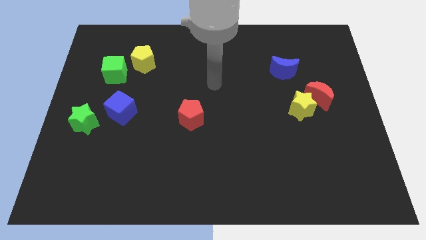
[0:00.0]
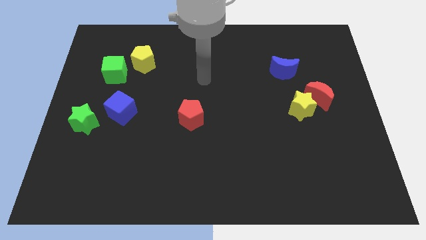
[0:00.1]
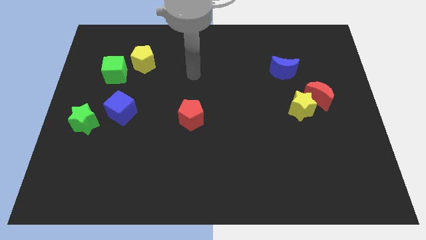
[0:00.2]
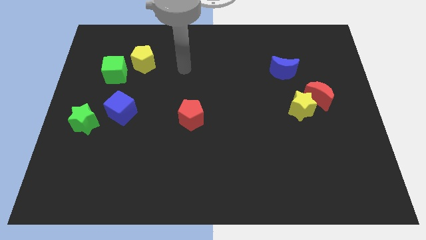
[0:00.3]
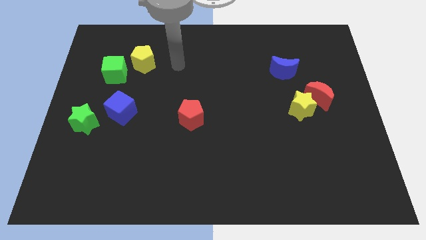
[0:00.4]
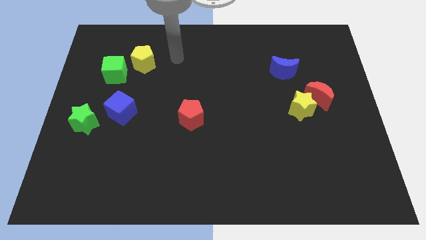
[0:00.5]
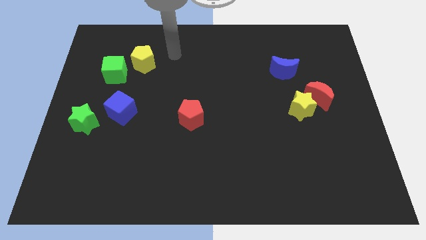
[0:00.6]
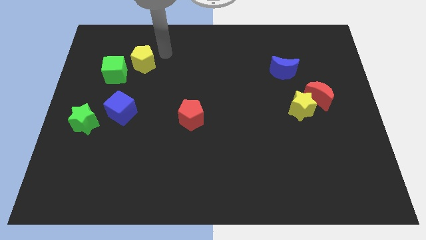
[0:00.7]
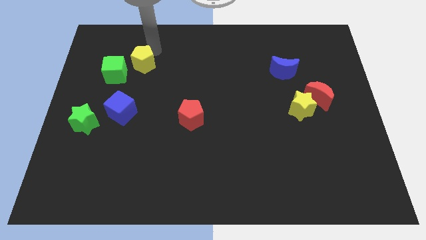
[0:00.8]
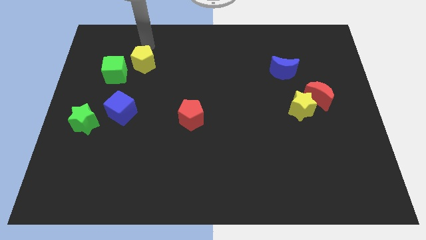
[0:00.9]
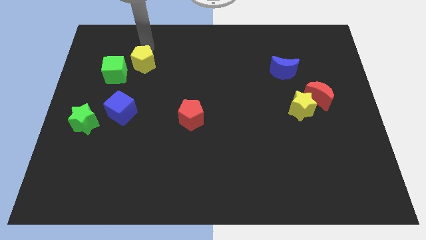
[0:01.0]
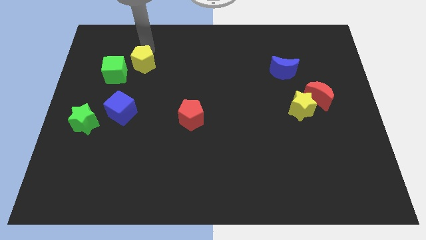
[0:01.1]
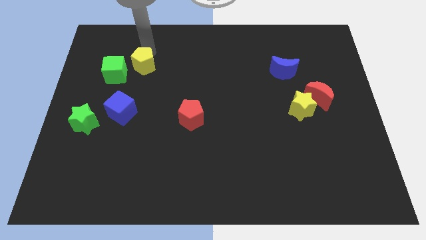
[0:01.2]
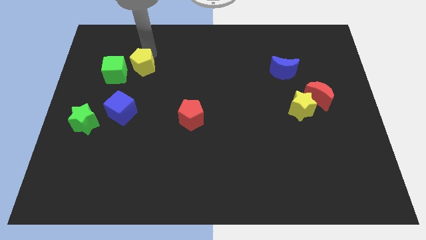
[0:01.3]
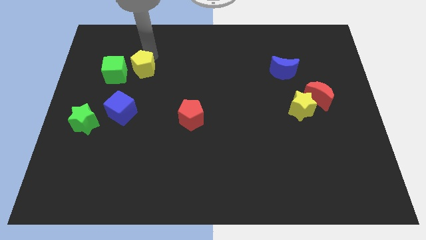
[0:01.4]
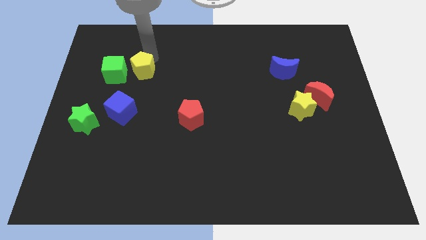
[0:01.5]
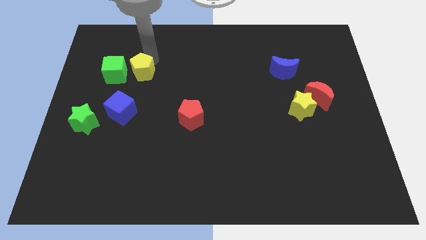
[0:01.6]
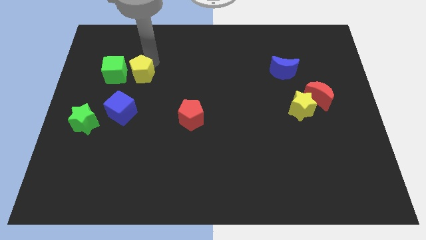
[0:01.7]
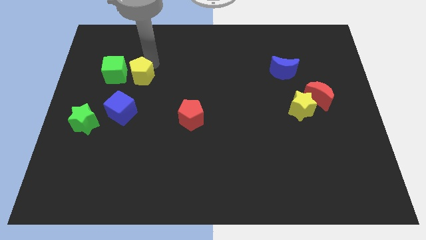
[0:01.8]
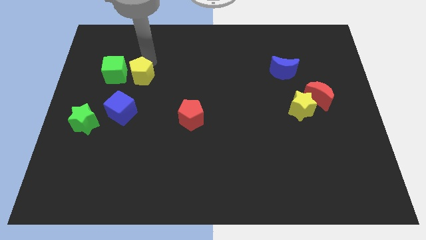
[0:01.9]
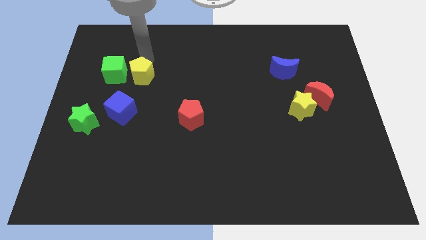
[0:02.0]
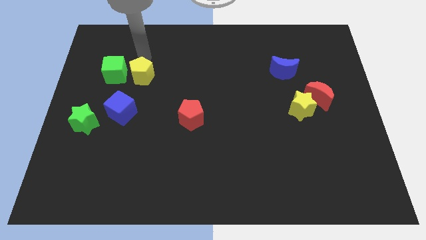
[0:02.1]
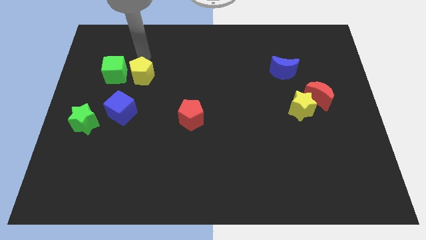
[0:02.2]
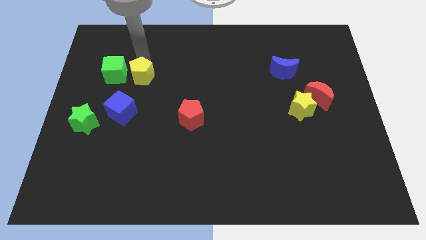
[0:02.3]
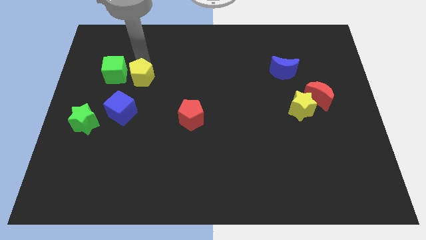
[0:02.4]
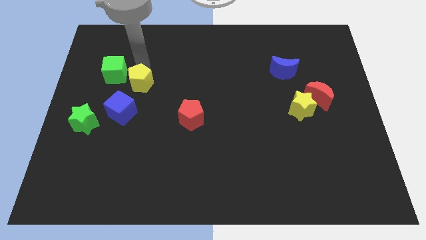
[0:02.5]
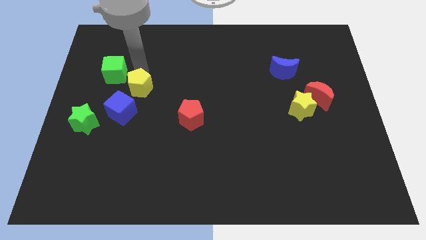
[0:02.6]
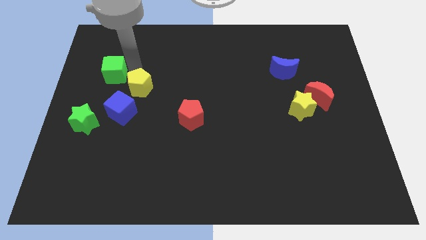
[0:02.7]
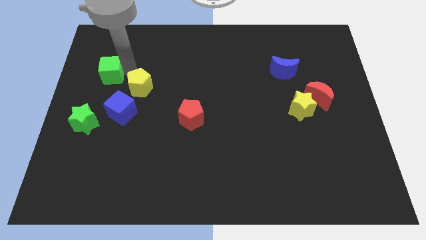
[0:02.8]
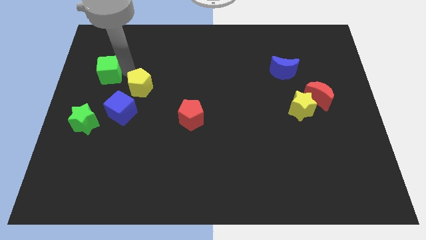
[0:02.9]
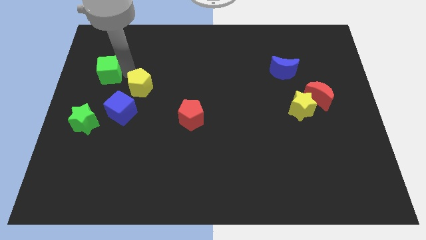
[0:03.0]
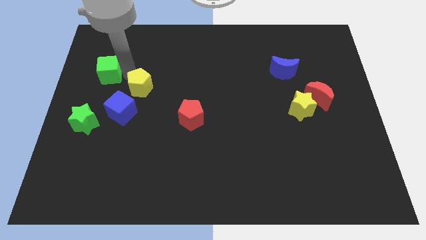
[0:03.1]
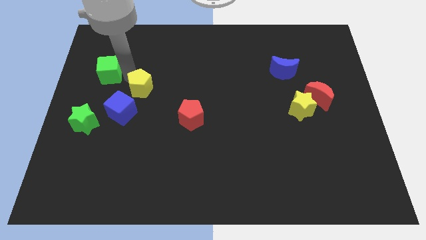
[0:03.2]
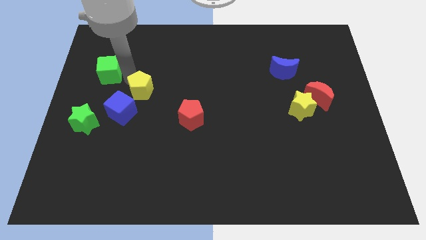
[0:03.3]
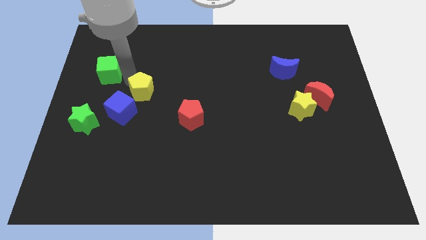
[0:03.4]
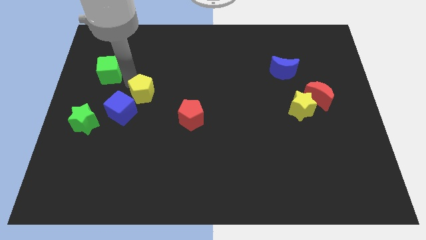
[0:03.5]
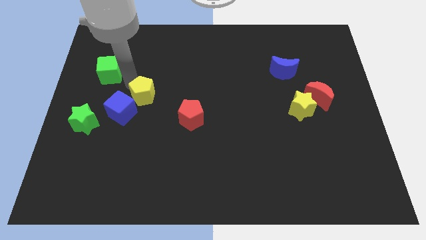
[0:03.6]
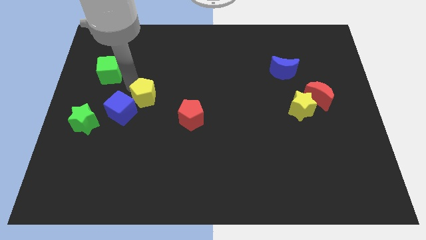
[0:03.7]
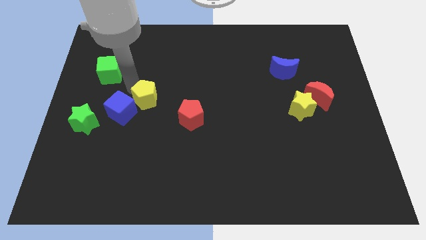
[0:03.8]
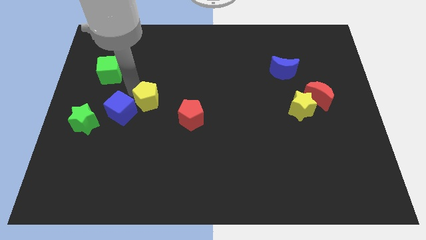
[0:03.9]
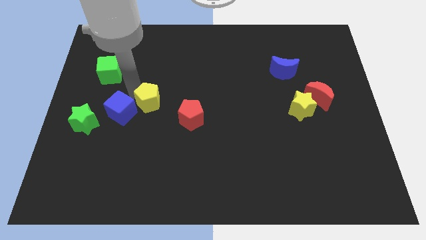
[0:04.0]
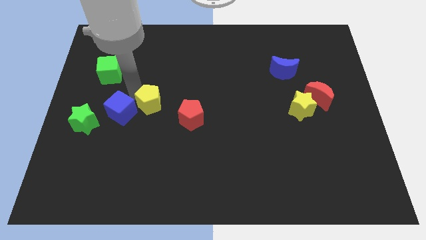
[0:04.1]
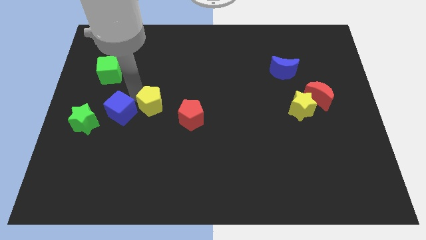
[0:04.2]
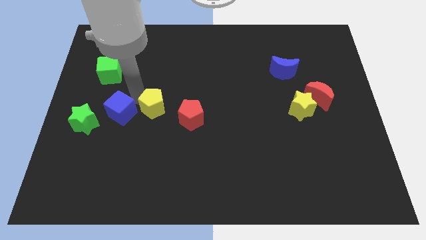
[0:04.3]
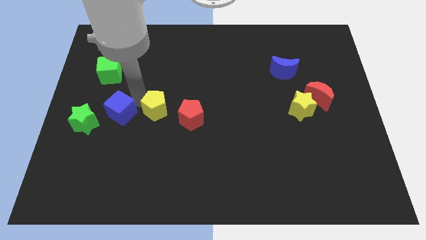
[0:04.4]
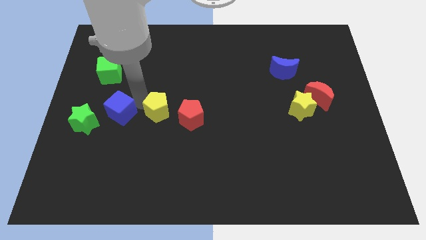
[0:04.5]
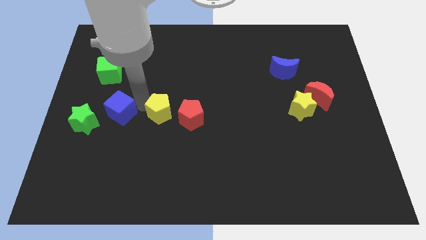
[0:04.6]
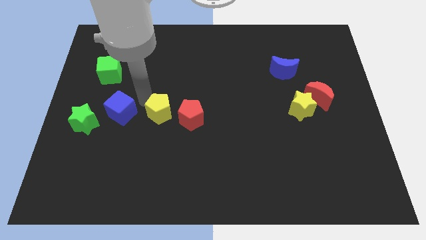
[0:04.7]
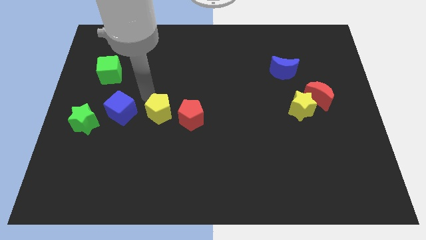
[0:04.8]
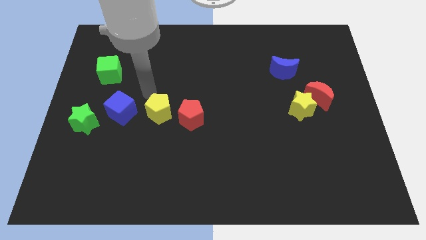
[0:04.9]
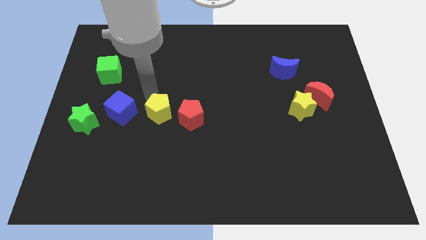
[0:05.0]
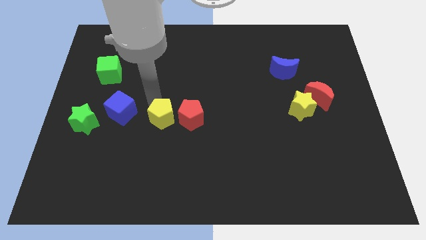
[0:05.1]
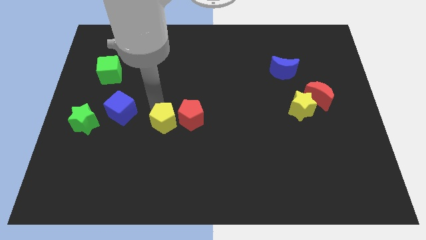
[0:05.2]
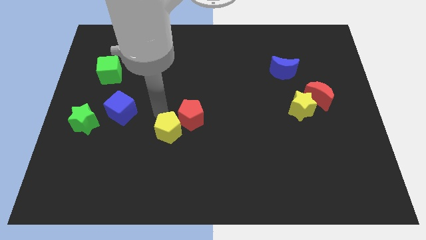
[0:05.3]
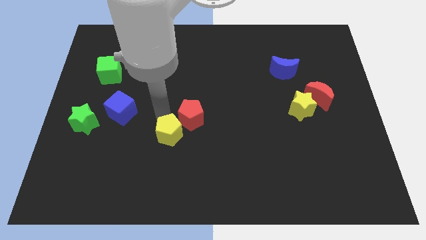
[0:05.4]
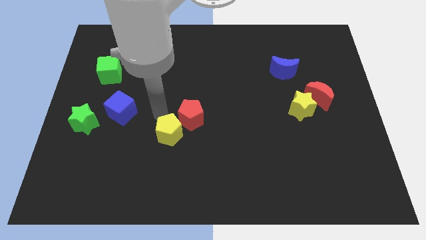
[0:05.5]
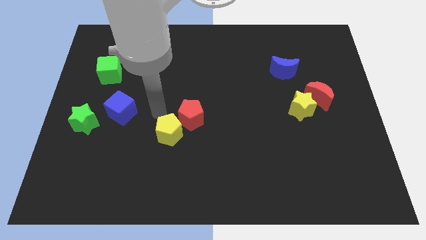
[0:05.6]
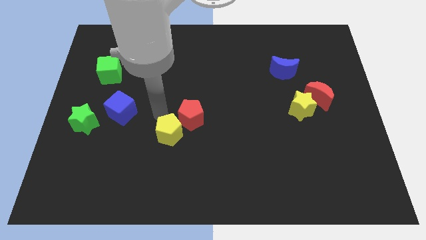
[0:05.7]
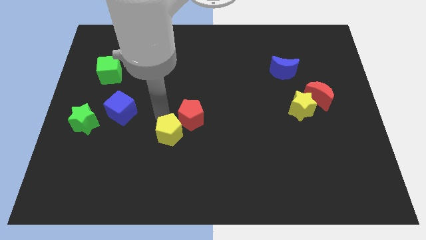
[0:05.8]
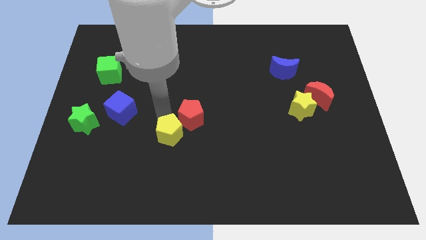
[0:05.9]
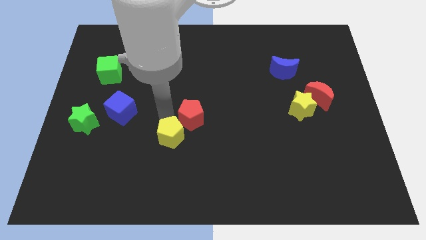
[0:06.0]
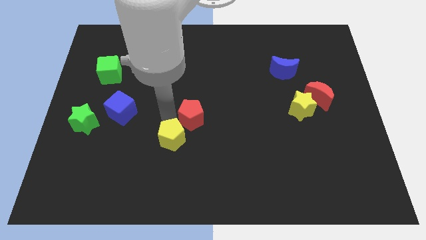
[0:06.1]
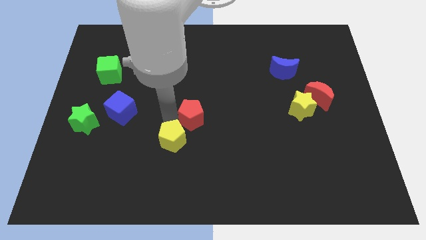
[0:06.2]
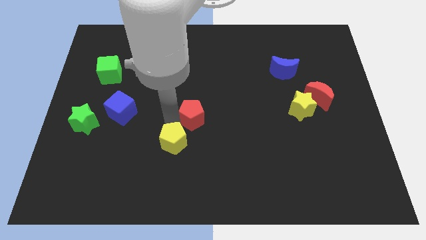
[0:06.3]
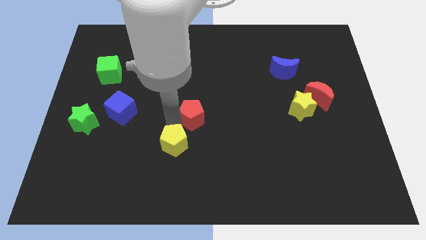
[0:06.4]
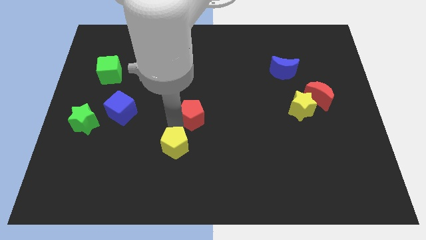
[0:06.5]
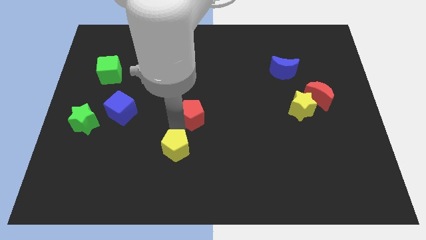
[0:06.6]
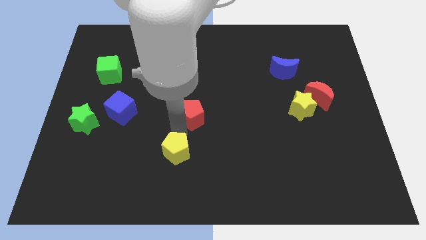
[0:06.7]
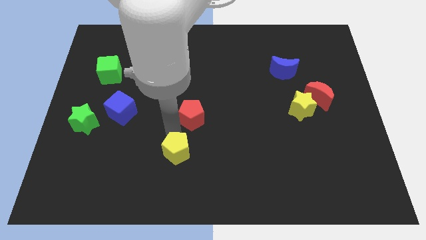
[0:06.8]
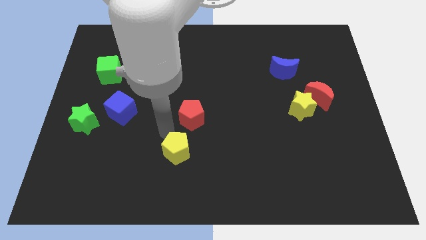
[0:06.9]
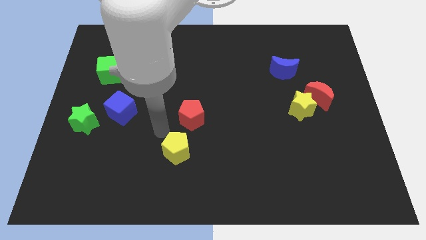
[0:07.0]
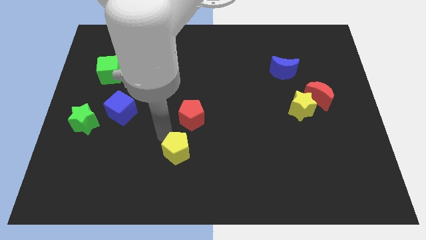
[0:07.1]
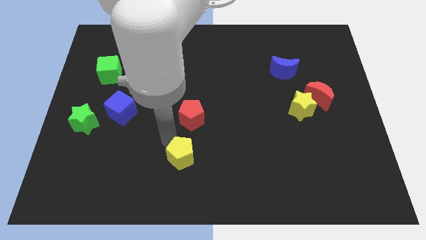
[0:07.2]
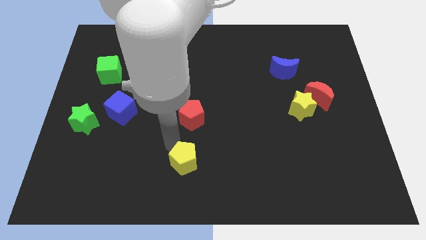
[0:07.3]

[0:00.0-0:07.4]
move the yellow pentagon to the bottom
